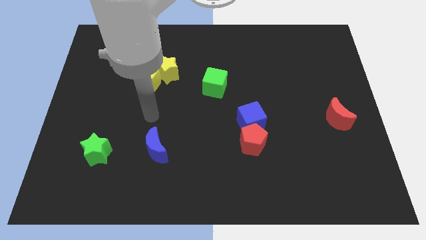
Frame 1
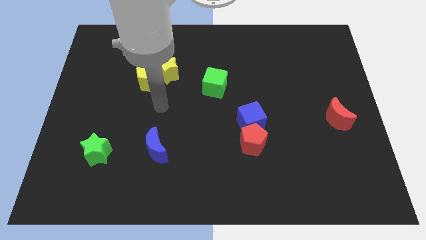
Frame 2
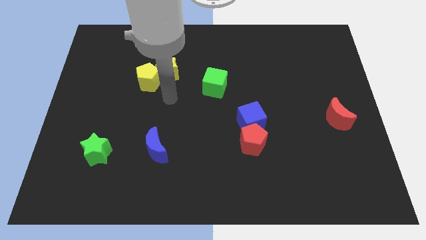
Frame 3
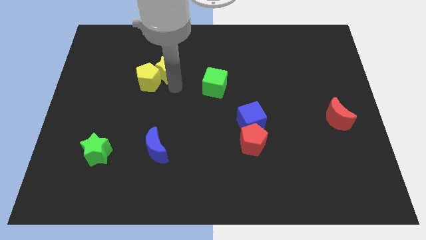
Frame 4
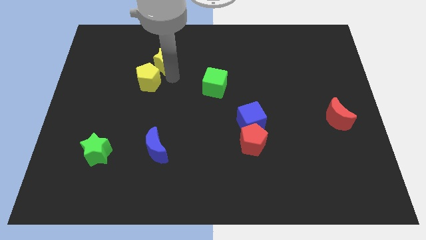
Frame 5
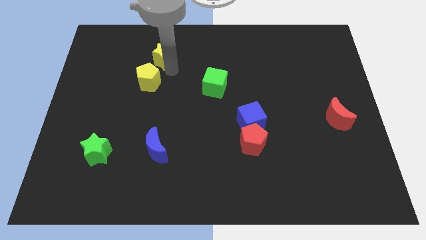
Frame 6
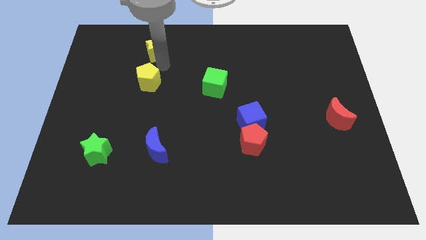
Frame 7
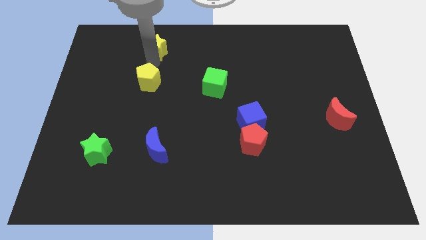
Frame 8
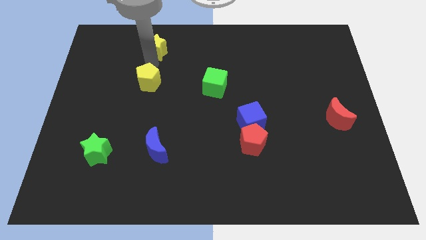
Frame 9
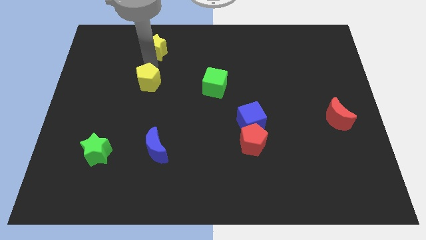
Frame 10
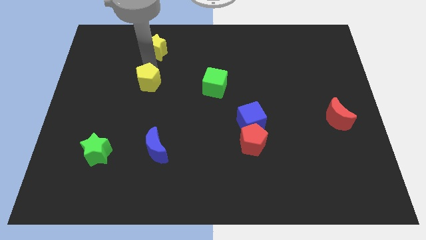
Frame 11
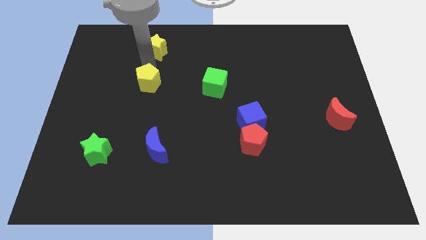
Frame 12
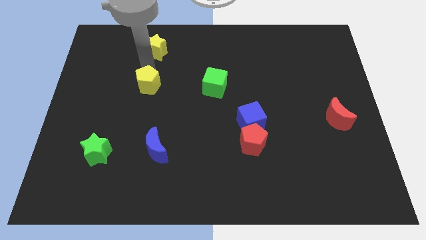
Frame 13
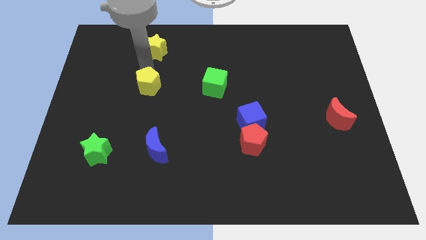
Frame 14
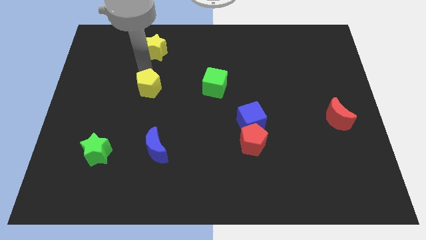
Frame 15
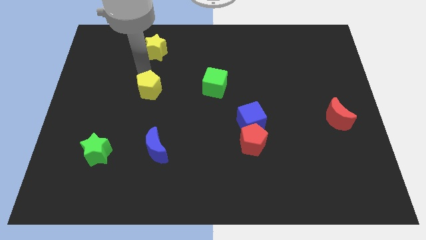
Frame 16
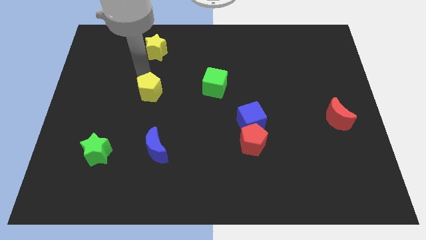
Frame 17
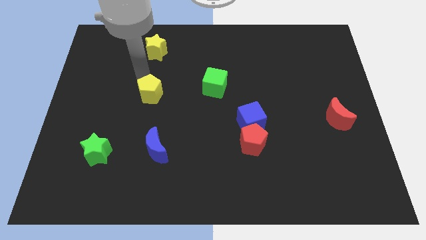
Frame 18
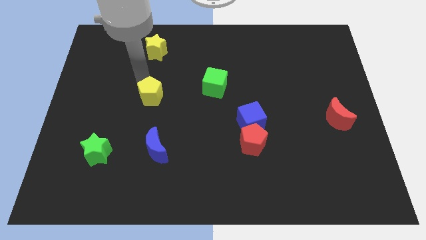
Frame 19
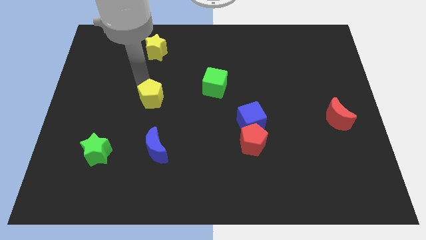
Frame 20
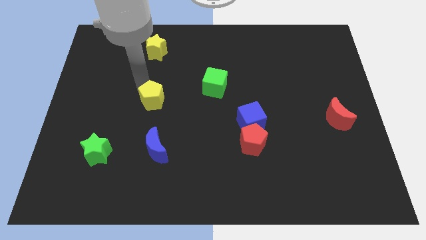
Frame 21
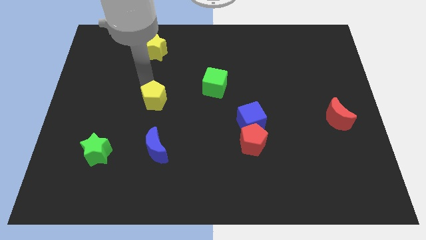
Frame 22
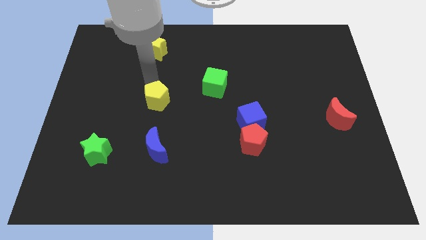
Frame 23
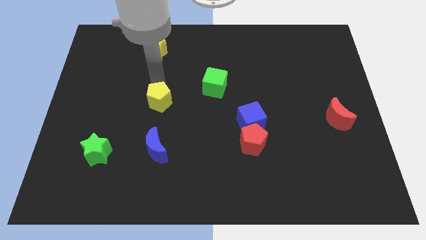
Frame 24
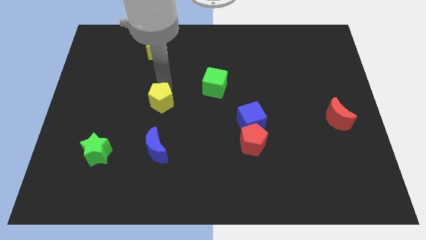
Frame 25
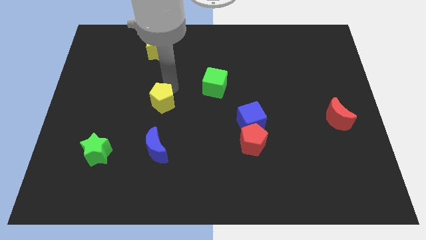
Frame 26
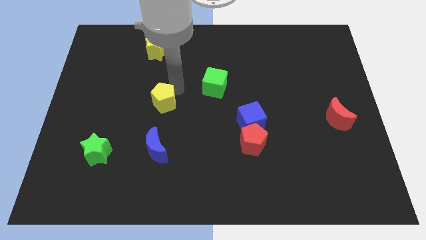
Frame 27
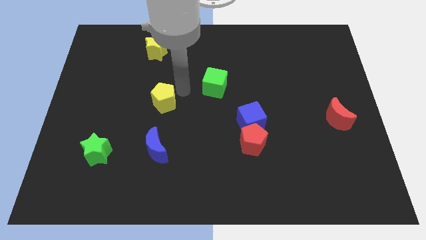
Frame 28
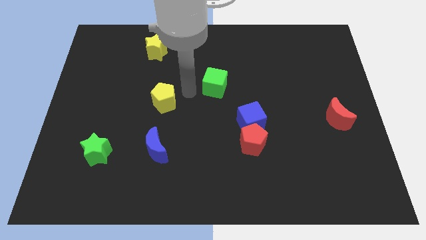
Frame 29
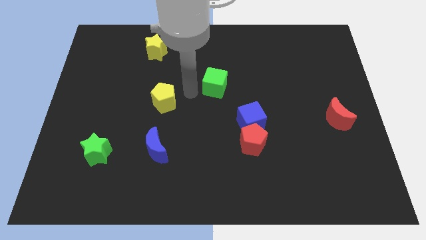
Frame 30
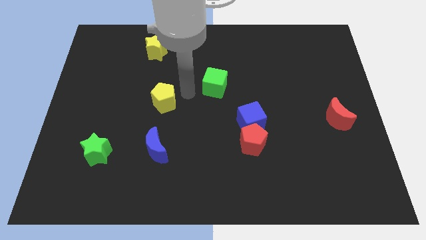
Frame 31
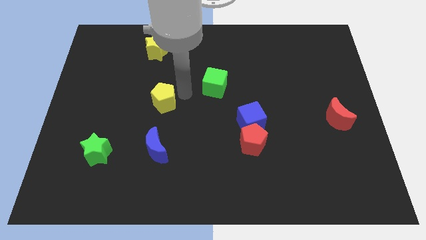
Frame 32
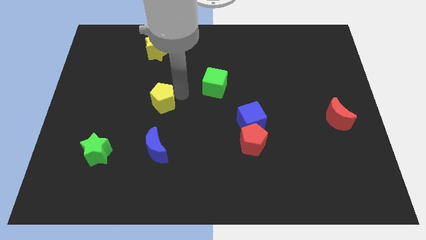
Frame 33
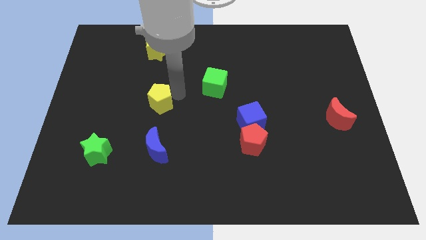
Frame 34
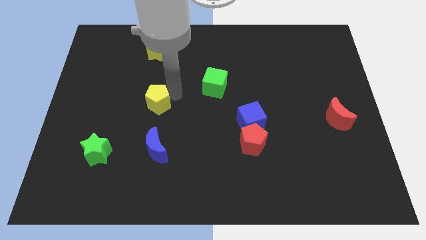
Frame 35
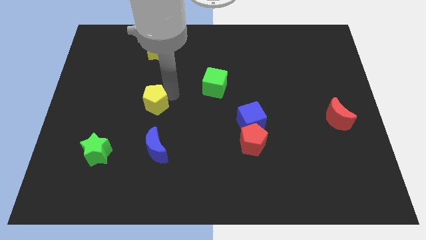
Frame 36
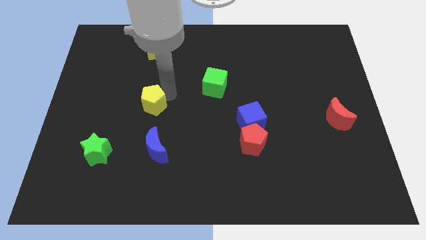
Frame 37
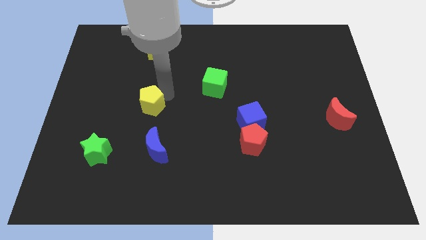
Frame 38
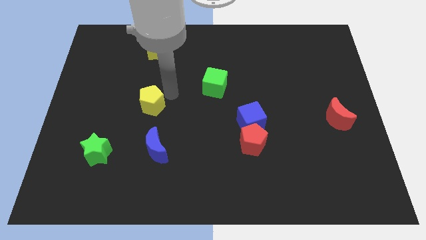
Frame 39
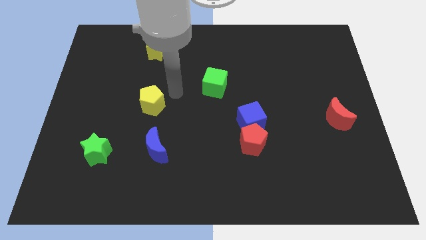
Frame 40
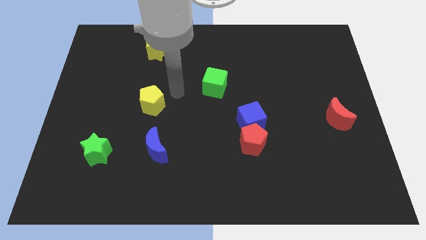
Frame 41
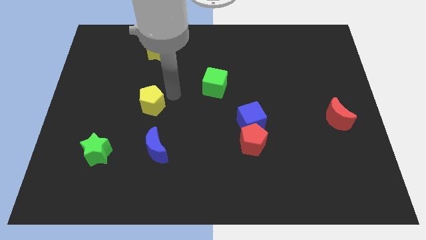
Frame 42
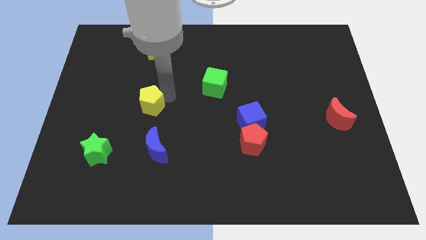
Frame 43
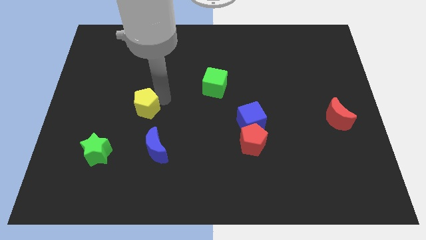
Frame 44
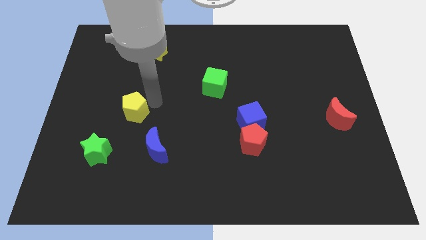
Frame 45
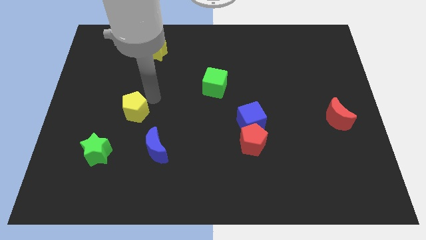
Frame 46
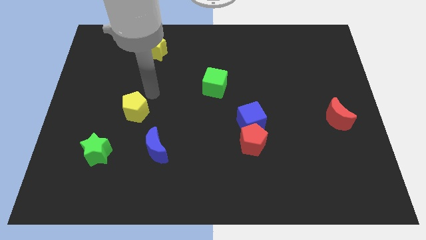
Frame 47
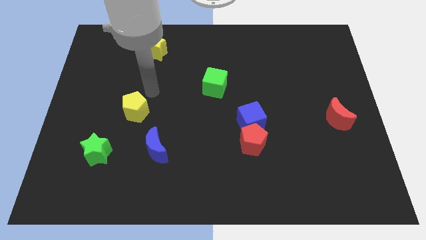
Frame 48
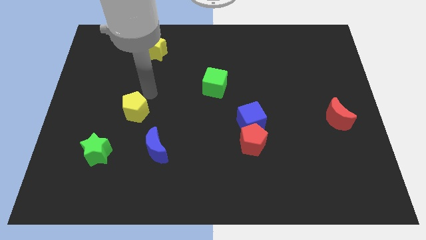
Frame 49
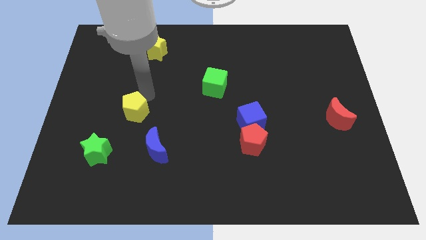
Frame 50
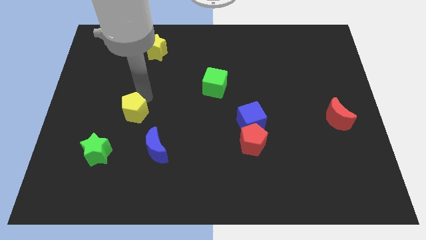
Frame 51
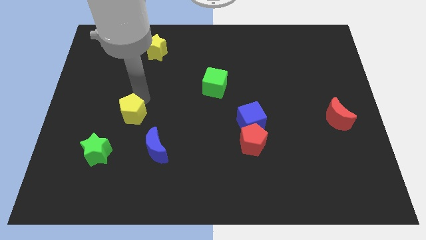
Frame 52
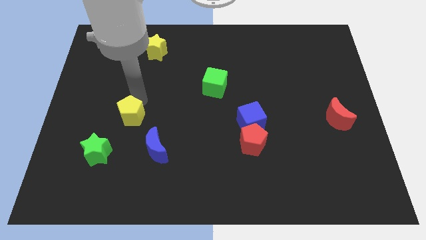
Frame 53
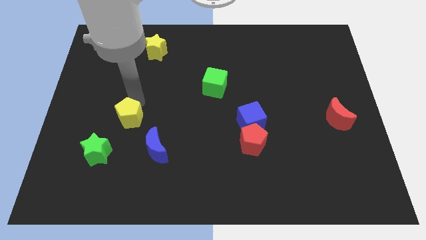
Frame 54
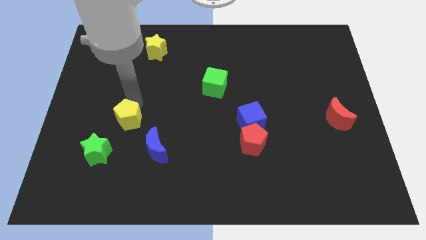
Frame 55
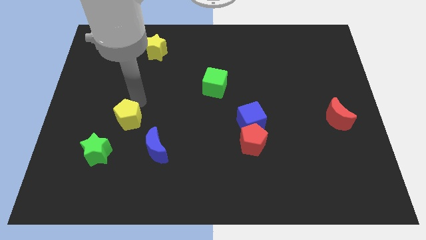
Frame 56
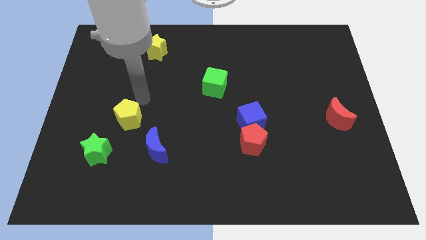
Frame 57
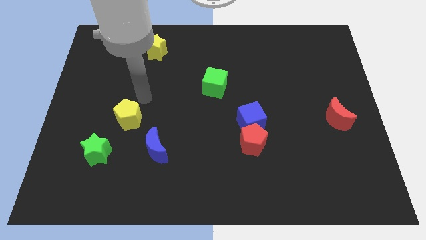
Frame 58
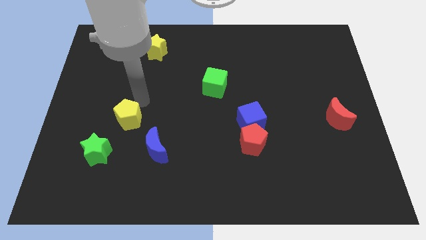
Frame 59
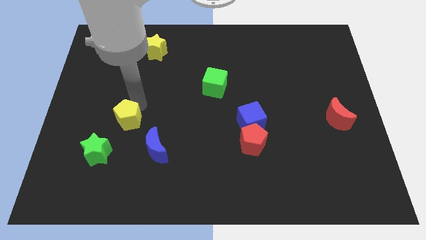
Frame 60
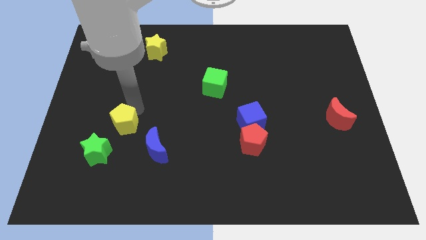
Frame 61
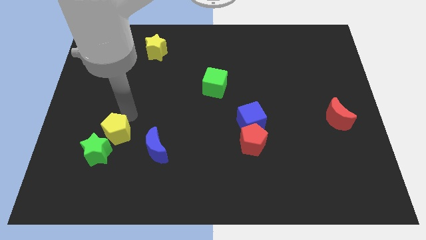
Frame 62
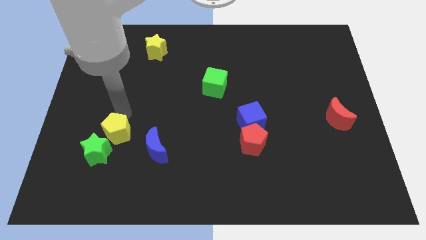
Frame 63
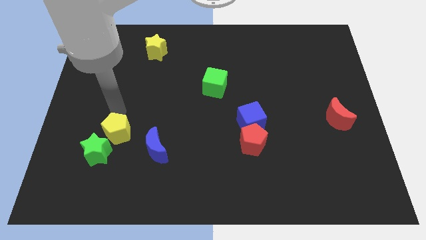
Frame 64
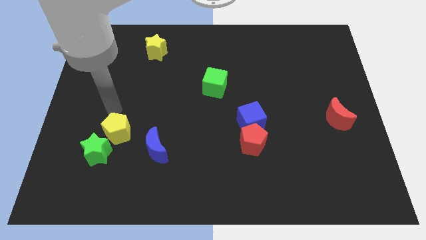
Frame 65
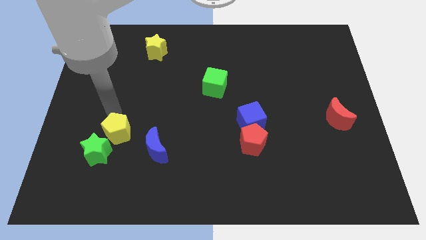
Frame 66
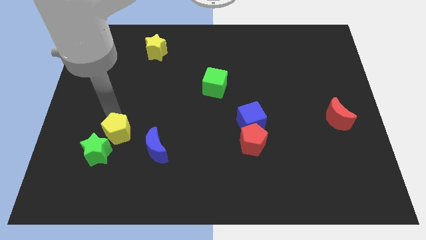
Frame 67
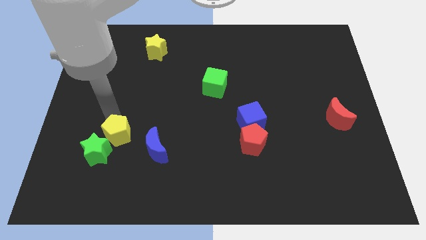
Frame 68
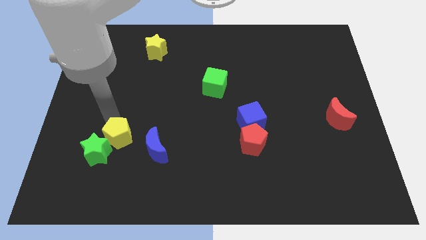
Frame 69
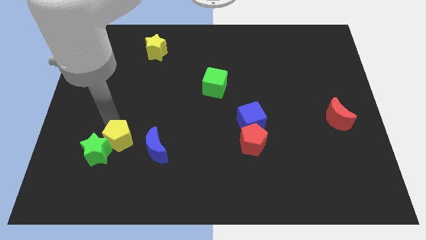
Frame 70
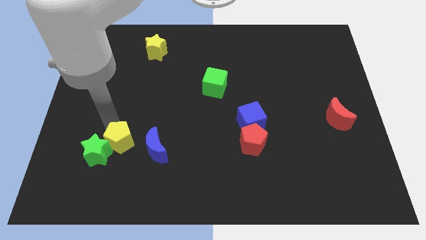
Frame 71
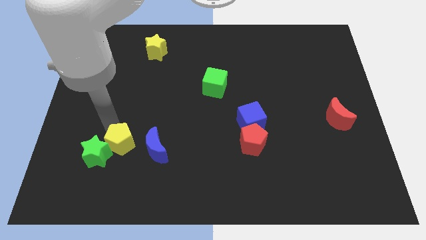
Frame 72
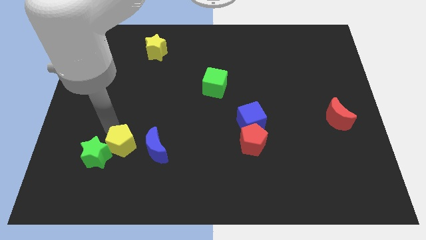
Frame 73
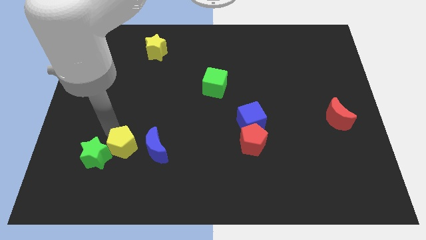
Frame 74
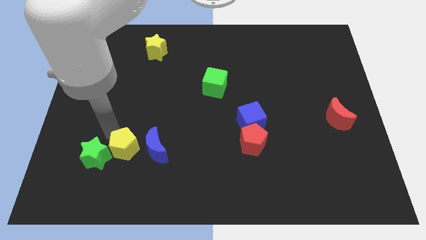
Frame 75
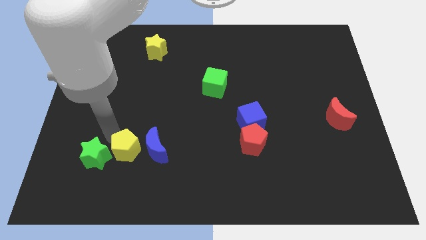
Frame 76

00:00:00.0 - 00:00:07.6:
move the yellow pentagon to the bottom left of the blue moon
